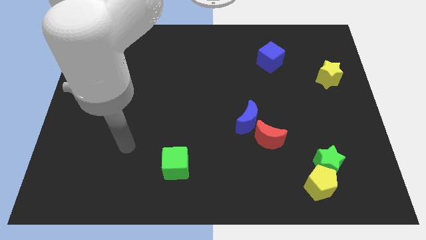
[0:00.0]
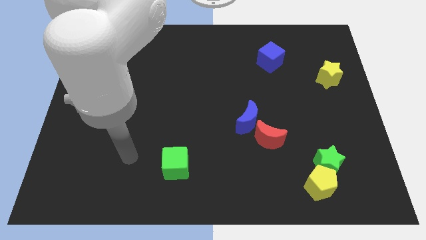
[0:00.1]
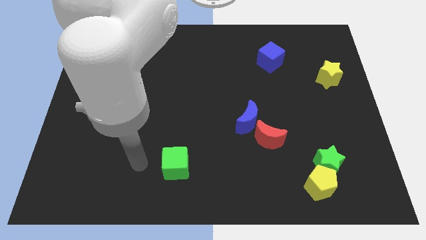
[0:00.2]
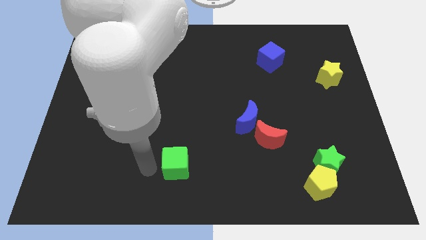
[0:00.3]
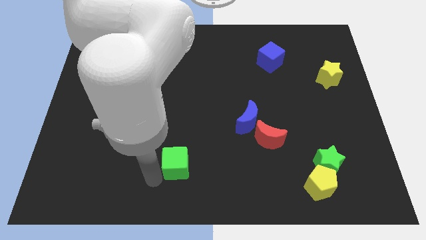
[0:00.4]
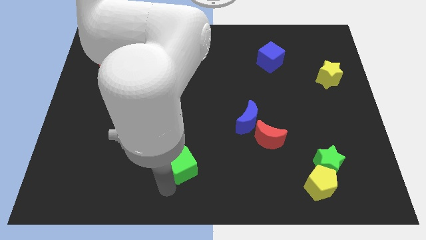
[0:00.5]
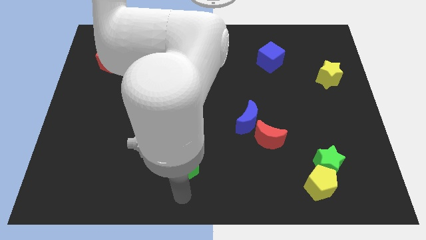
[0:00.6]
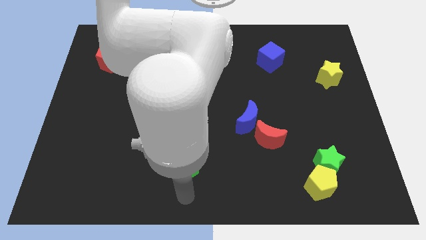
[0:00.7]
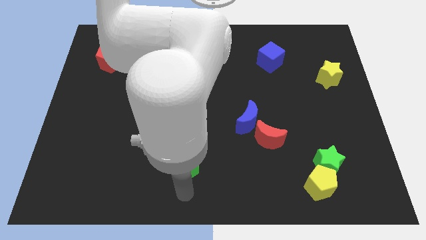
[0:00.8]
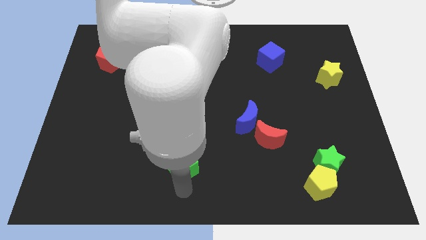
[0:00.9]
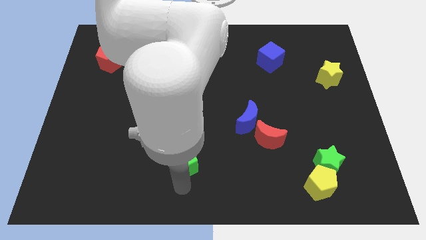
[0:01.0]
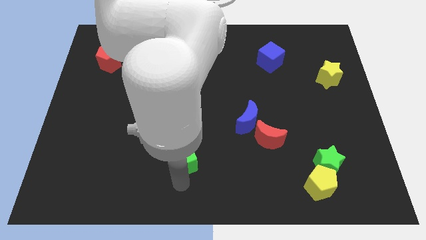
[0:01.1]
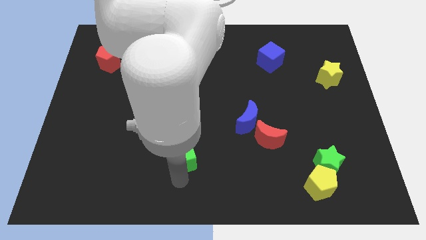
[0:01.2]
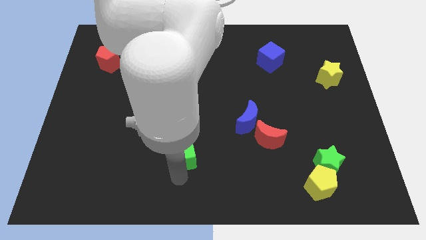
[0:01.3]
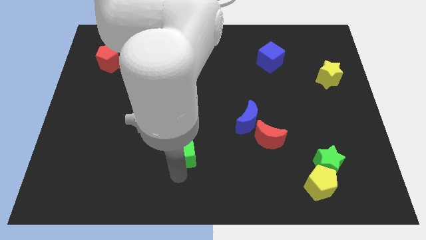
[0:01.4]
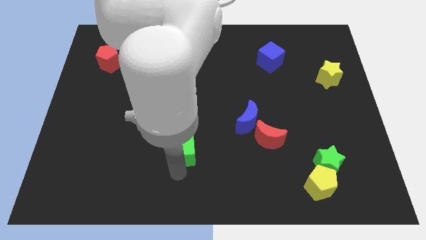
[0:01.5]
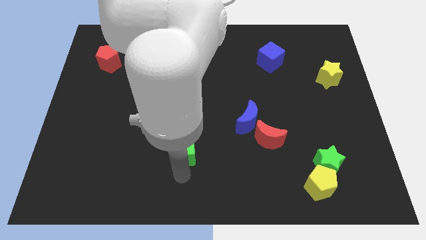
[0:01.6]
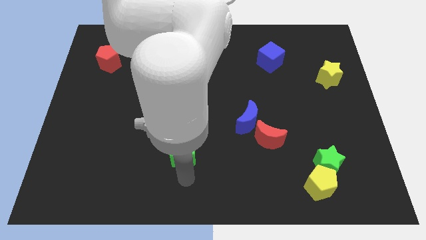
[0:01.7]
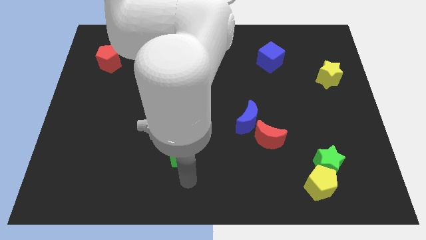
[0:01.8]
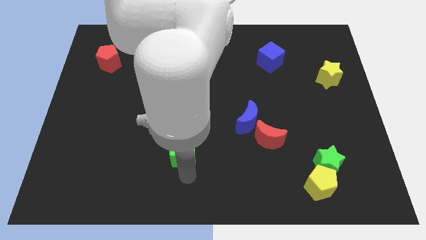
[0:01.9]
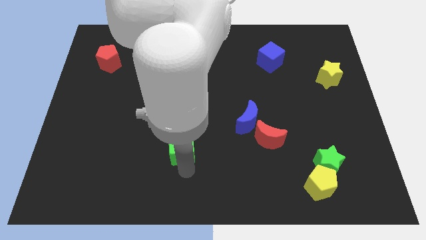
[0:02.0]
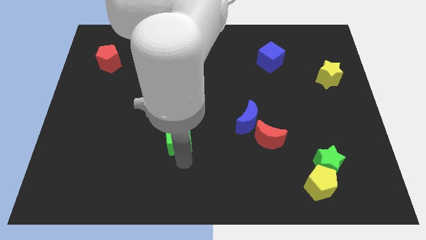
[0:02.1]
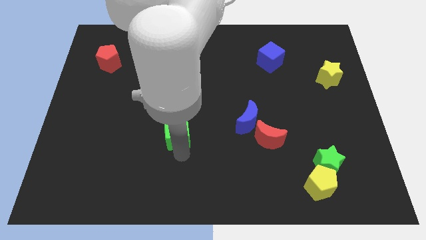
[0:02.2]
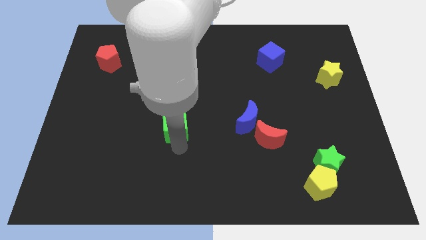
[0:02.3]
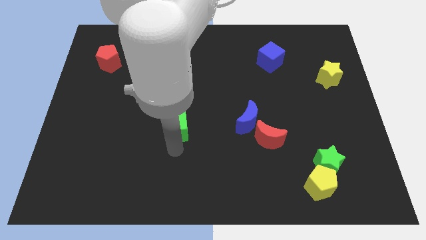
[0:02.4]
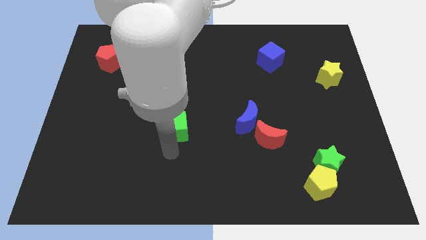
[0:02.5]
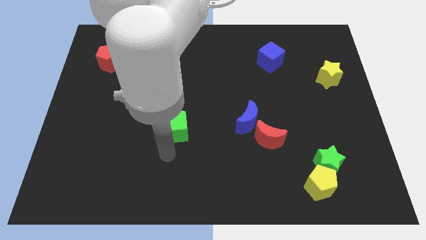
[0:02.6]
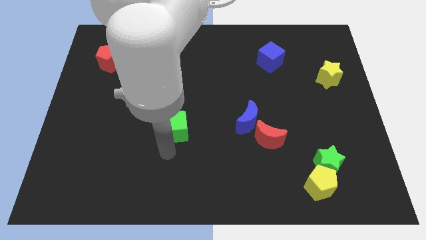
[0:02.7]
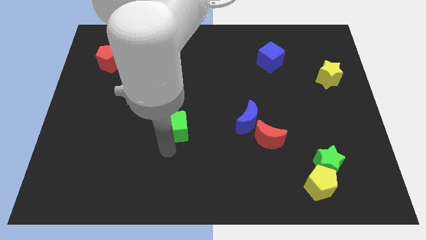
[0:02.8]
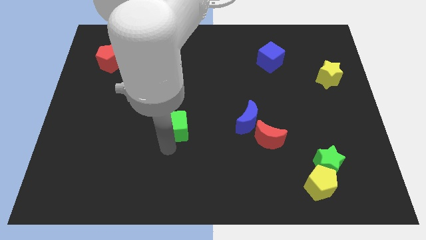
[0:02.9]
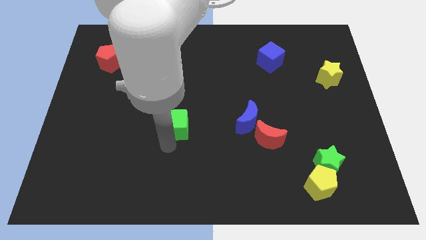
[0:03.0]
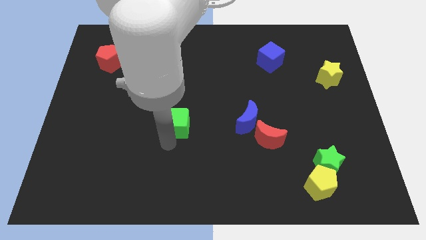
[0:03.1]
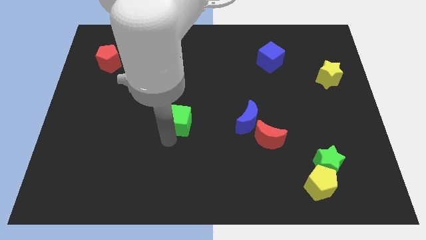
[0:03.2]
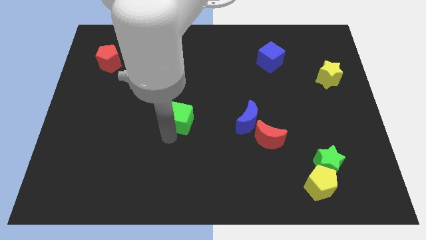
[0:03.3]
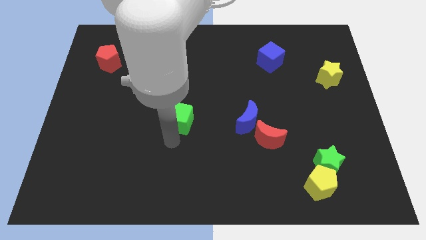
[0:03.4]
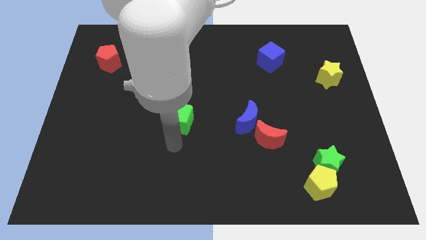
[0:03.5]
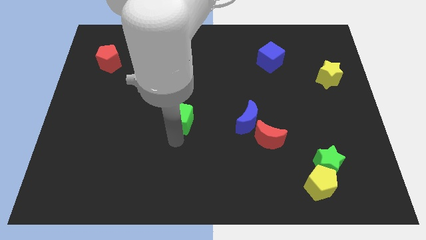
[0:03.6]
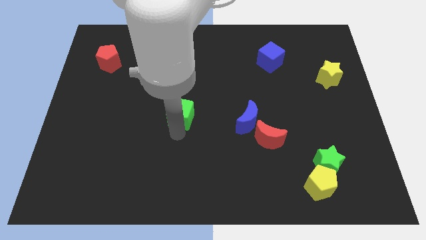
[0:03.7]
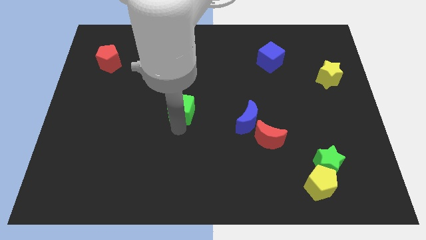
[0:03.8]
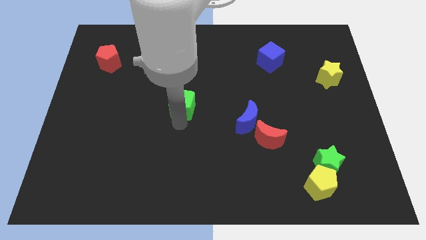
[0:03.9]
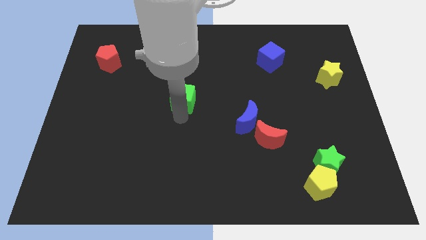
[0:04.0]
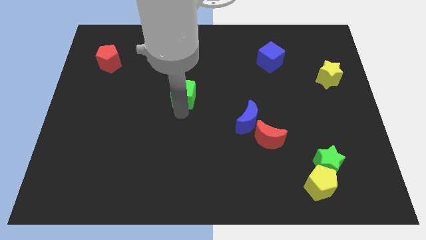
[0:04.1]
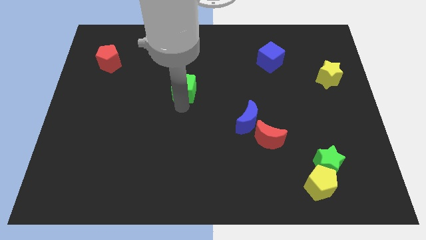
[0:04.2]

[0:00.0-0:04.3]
slide the green cube up

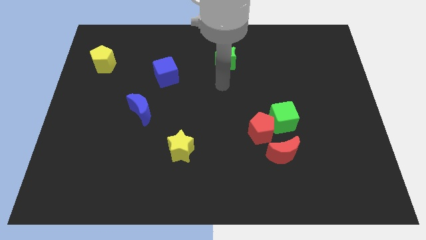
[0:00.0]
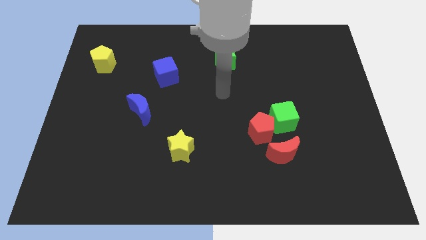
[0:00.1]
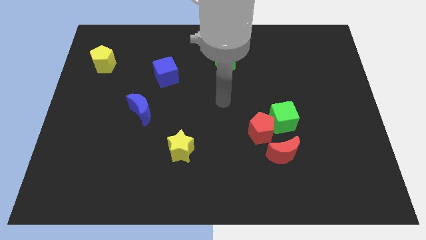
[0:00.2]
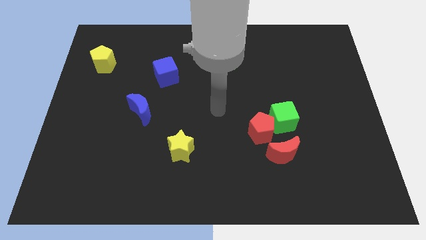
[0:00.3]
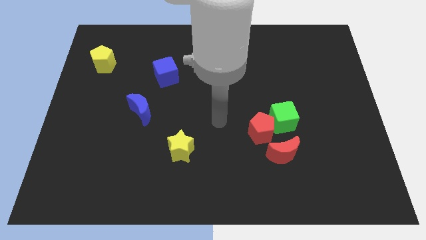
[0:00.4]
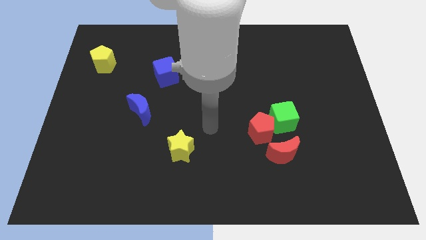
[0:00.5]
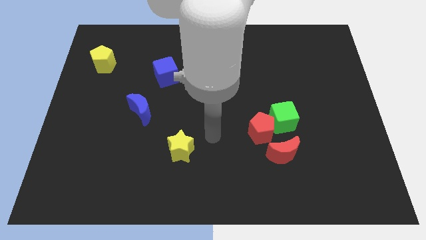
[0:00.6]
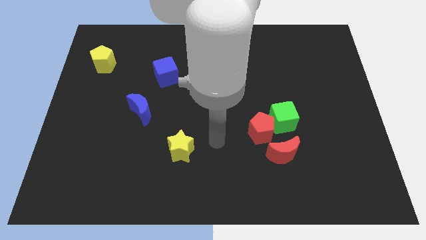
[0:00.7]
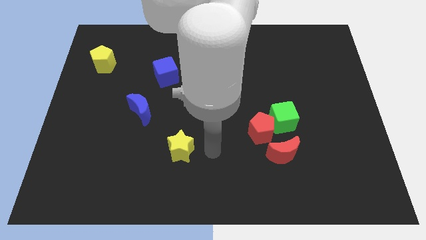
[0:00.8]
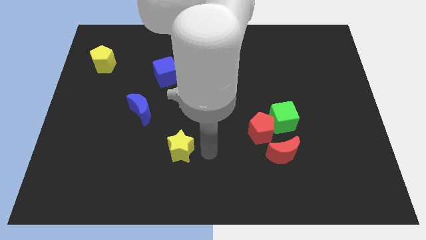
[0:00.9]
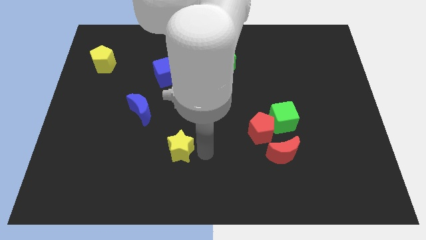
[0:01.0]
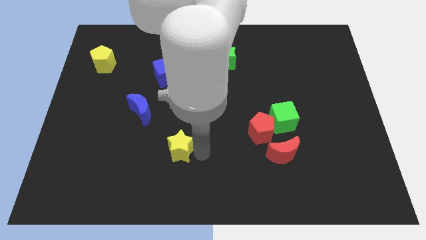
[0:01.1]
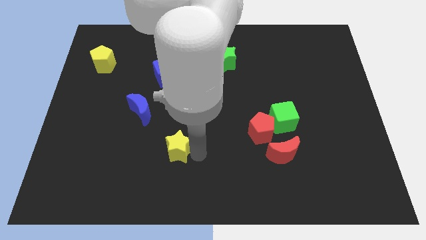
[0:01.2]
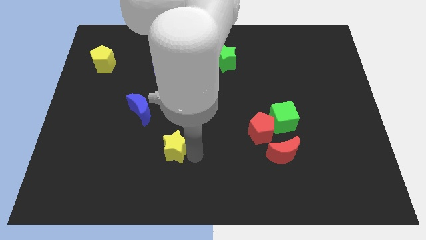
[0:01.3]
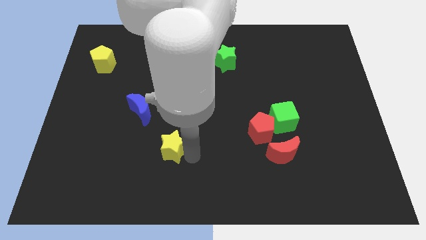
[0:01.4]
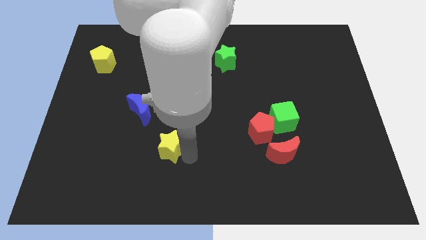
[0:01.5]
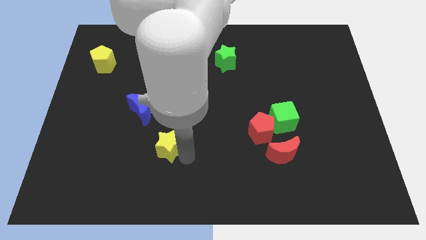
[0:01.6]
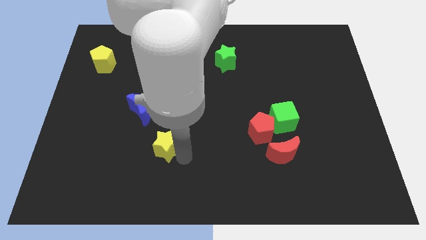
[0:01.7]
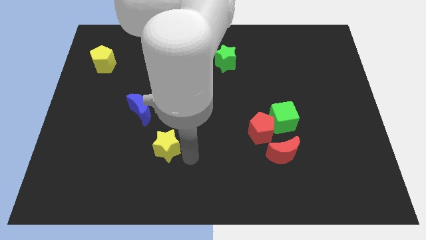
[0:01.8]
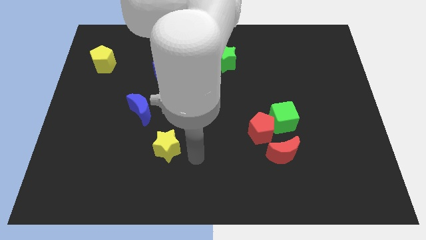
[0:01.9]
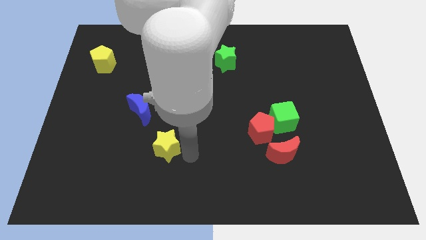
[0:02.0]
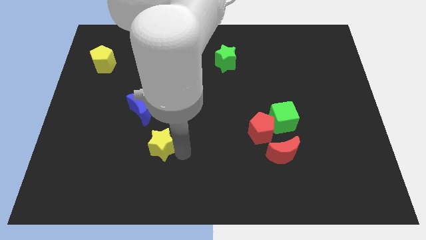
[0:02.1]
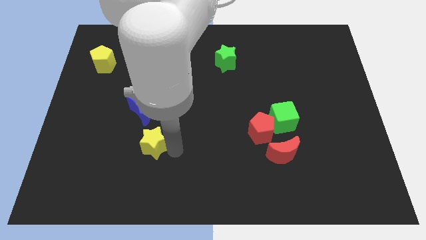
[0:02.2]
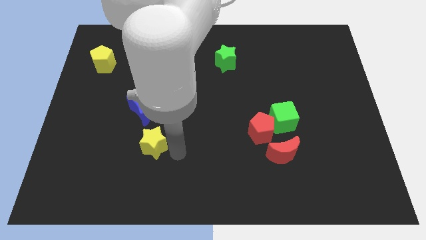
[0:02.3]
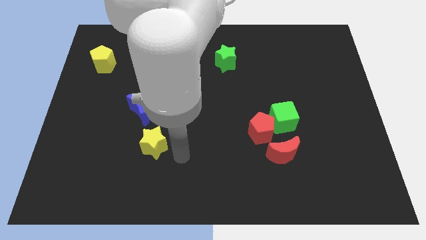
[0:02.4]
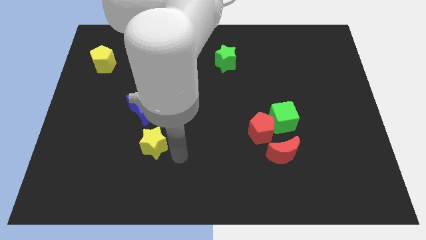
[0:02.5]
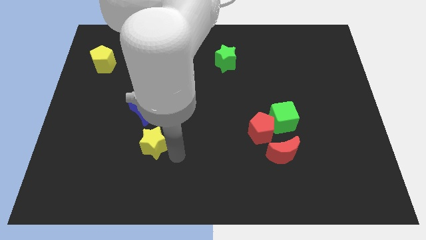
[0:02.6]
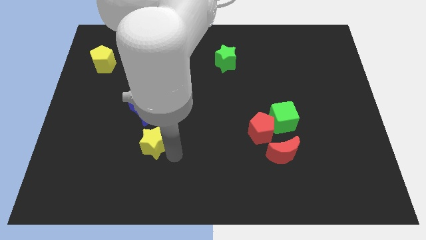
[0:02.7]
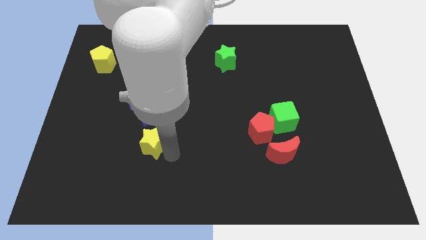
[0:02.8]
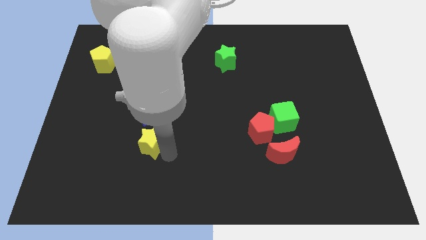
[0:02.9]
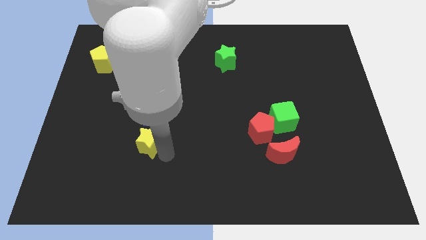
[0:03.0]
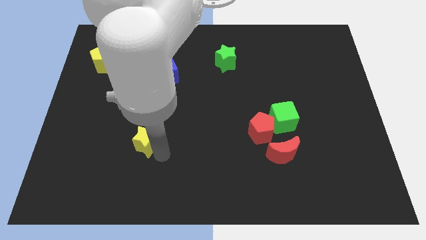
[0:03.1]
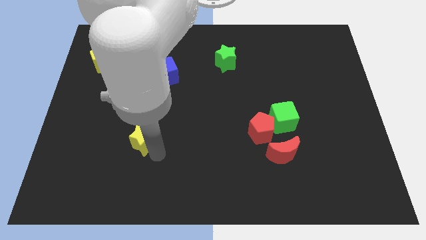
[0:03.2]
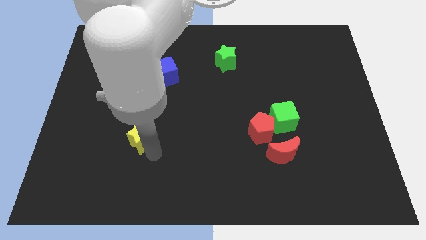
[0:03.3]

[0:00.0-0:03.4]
move the yellow star a little bit upwards and then to the left
